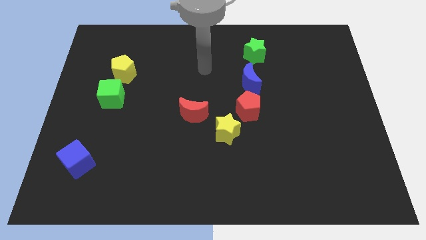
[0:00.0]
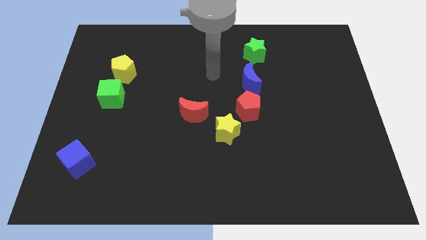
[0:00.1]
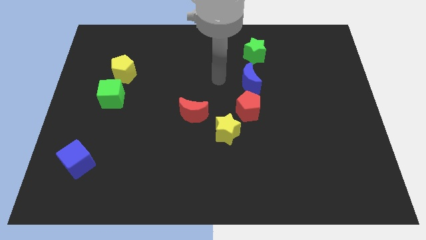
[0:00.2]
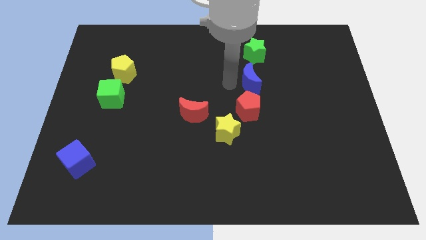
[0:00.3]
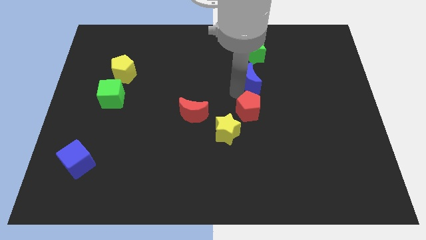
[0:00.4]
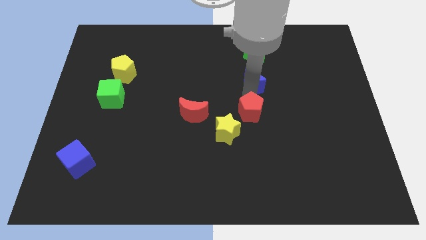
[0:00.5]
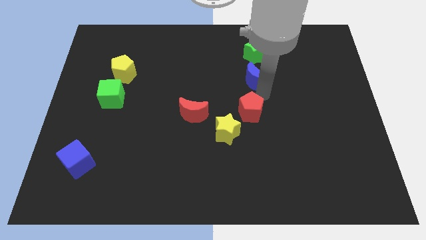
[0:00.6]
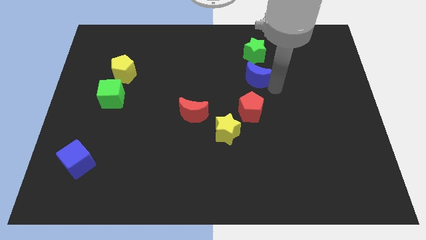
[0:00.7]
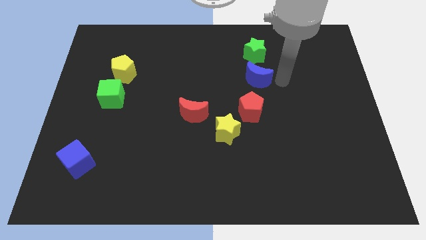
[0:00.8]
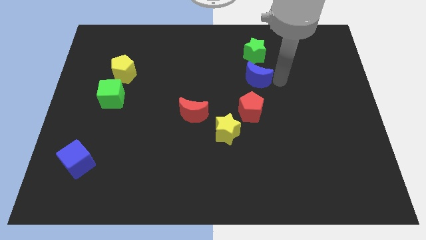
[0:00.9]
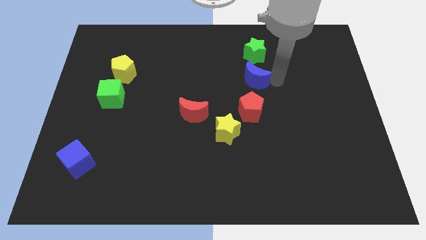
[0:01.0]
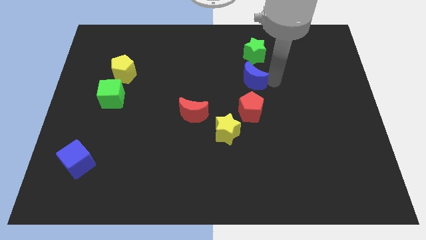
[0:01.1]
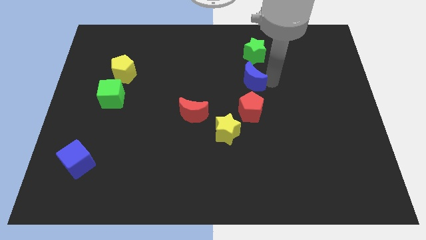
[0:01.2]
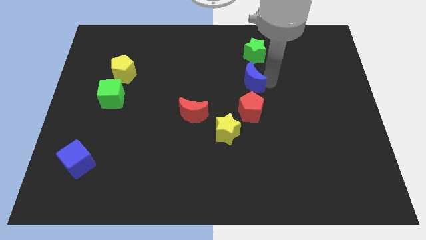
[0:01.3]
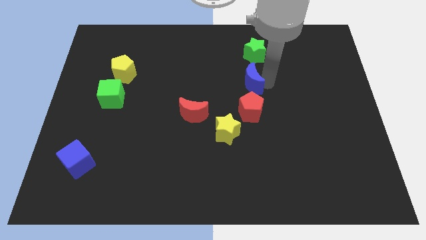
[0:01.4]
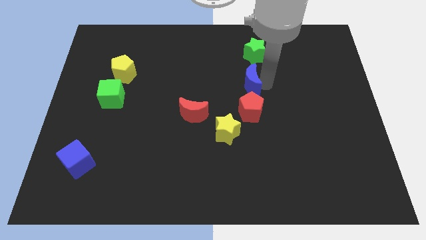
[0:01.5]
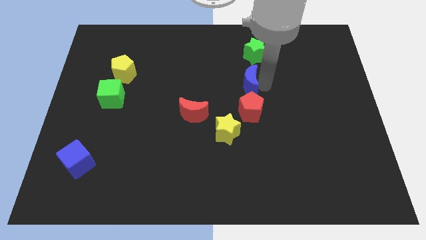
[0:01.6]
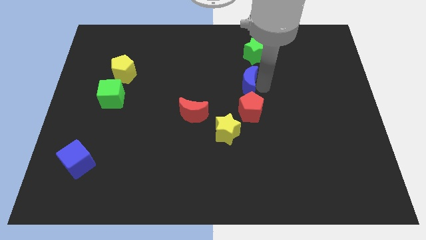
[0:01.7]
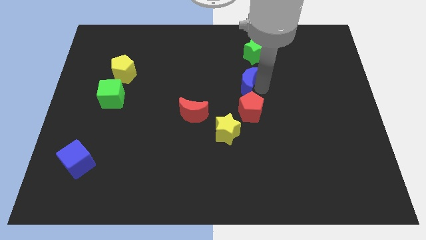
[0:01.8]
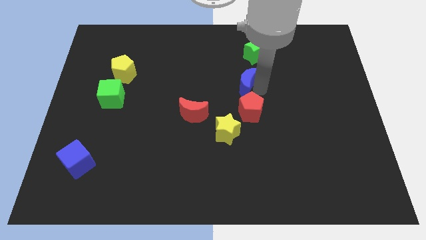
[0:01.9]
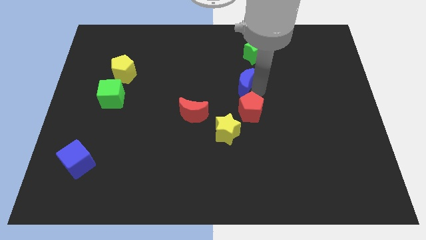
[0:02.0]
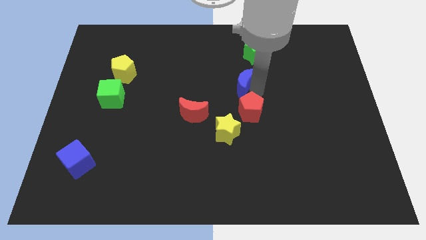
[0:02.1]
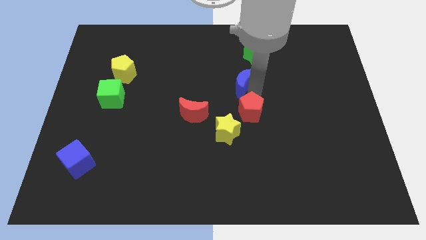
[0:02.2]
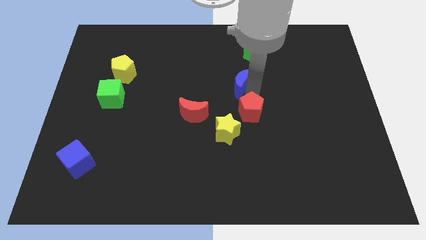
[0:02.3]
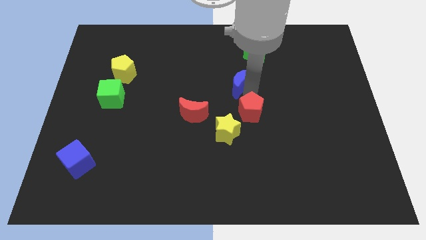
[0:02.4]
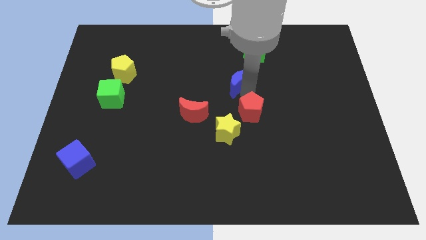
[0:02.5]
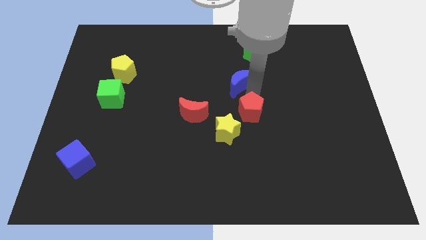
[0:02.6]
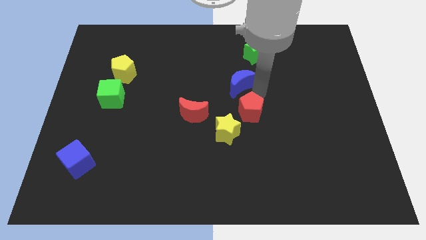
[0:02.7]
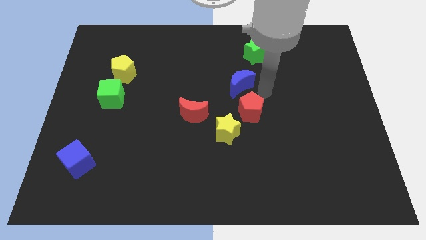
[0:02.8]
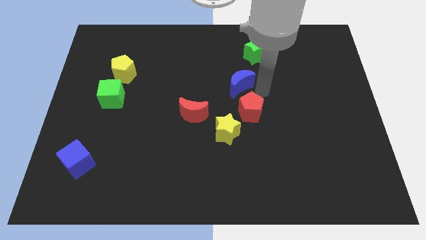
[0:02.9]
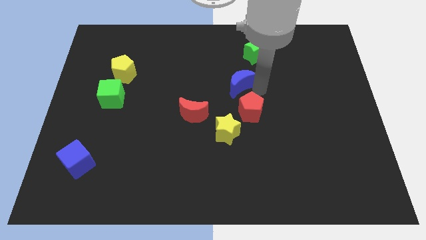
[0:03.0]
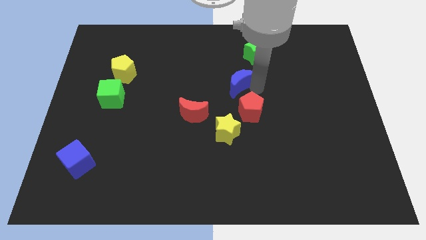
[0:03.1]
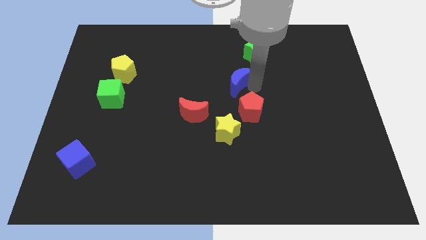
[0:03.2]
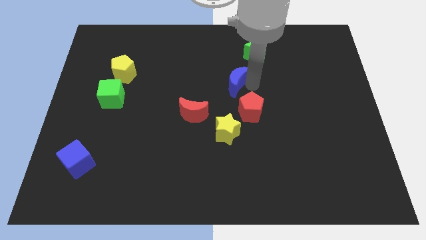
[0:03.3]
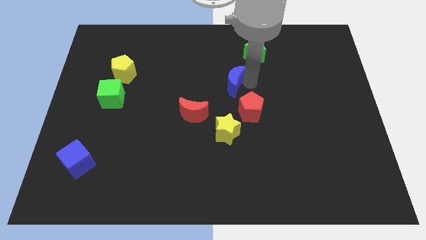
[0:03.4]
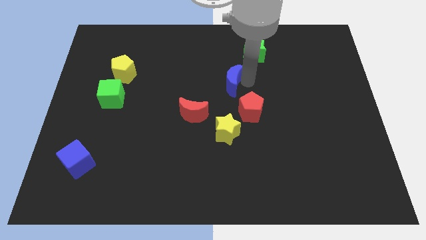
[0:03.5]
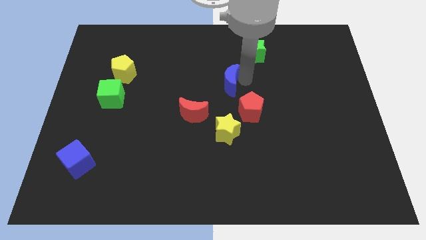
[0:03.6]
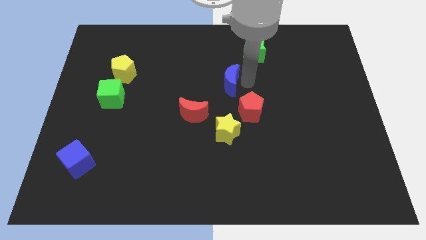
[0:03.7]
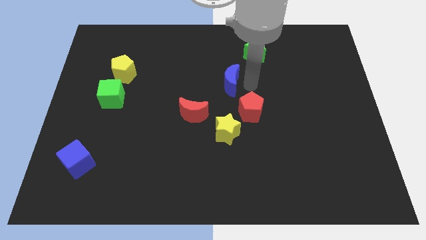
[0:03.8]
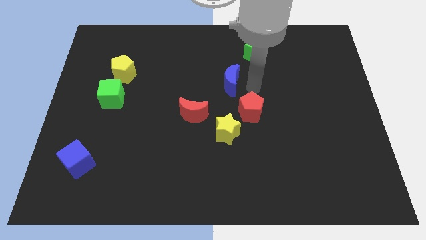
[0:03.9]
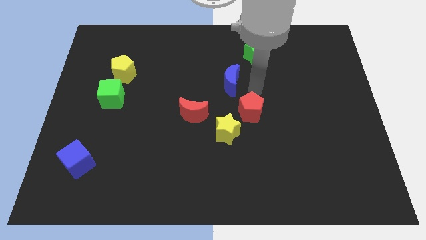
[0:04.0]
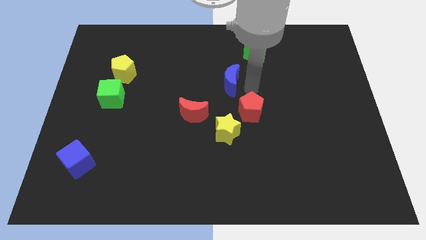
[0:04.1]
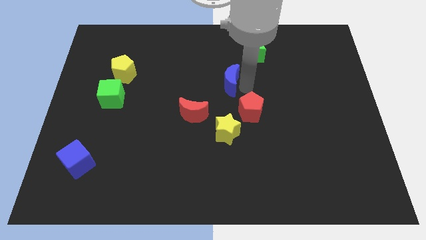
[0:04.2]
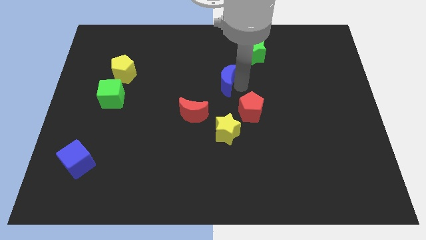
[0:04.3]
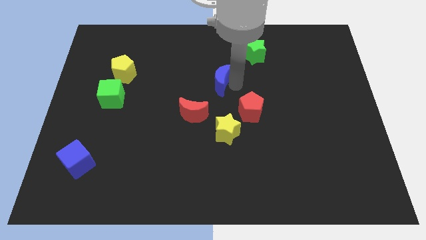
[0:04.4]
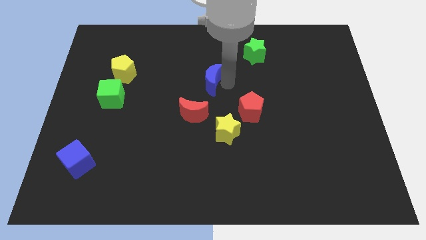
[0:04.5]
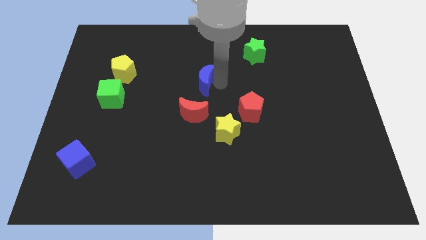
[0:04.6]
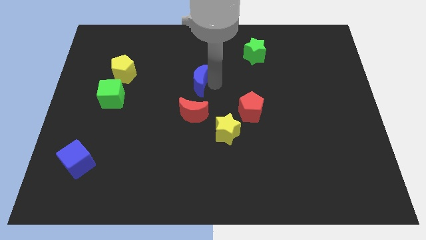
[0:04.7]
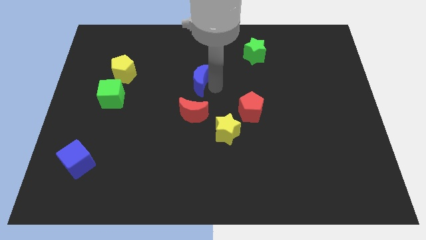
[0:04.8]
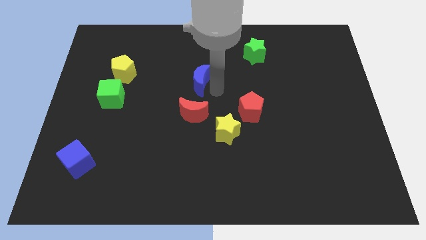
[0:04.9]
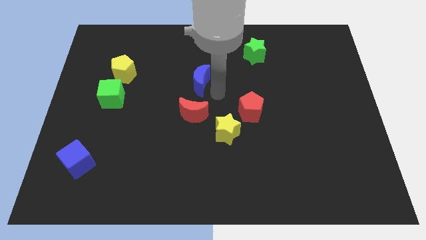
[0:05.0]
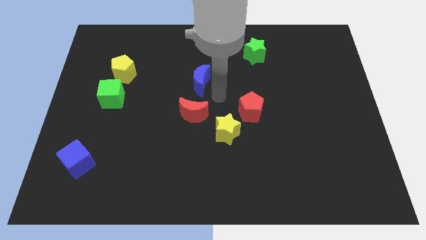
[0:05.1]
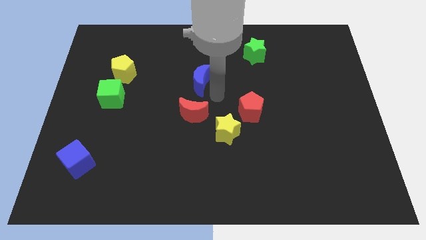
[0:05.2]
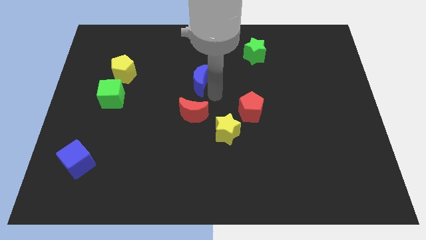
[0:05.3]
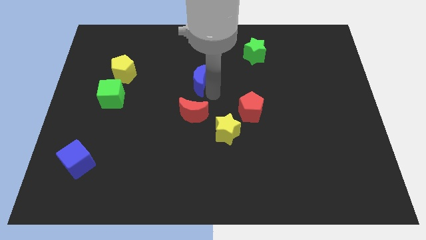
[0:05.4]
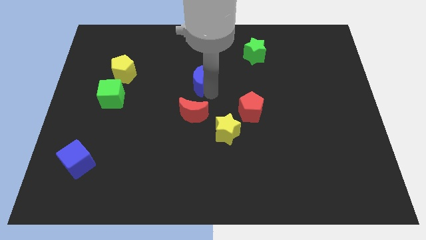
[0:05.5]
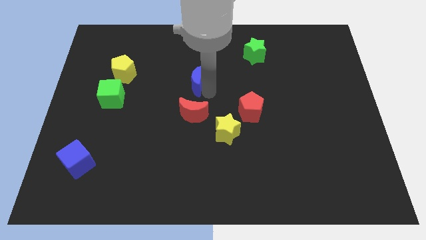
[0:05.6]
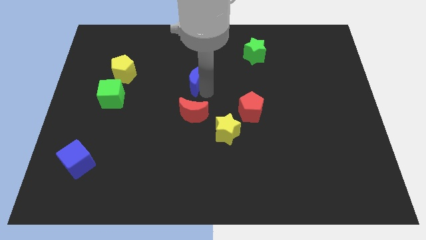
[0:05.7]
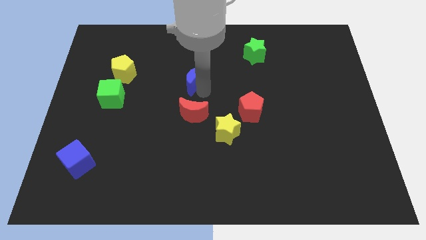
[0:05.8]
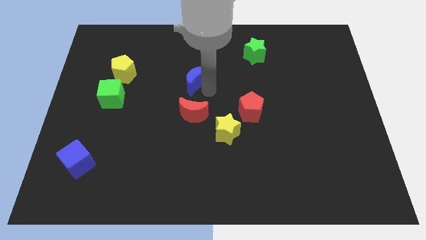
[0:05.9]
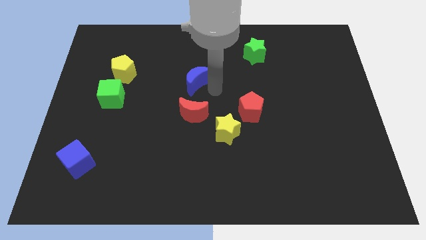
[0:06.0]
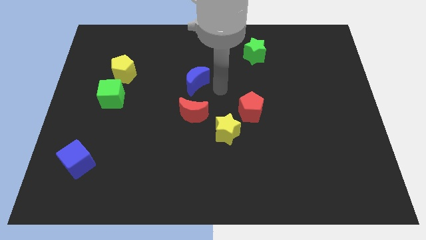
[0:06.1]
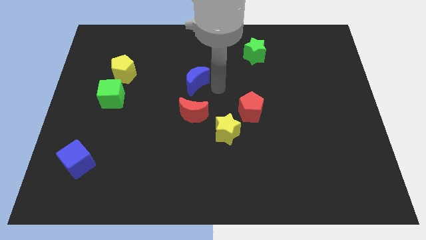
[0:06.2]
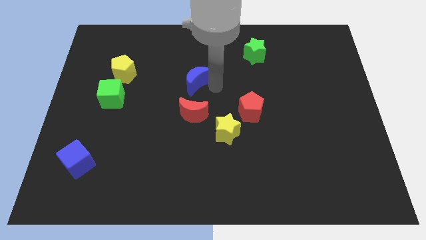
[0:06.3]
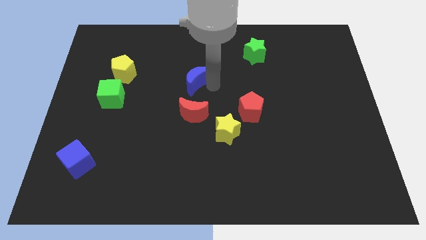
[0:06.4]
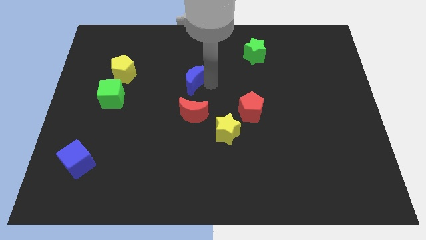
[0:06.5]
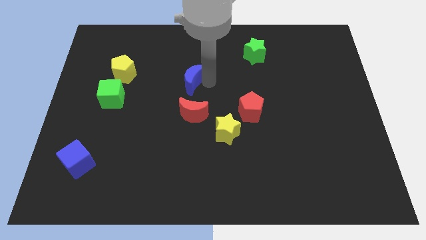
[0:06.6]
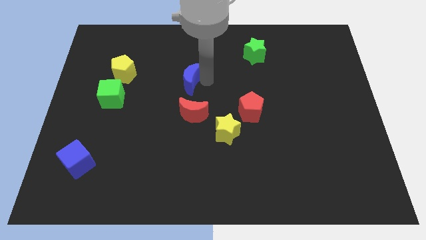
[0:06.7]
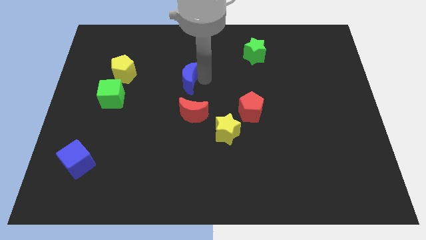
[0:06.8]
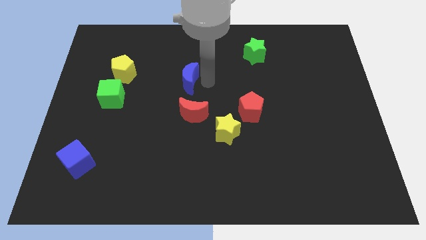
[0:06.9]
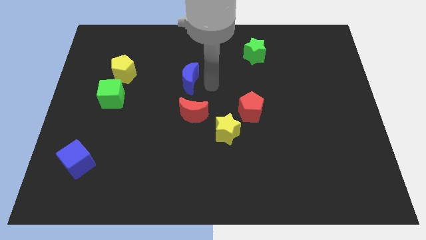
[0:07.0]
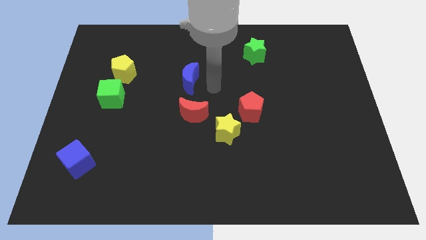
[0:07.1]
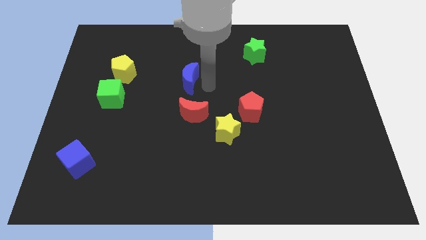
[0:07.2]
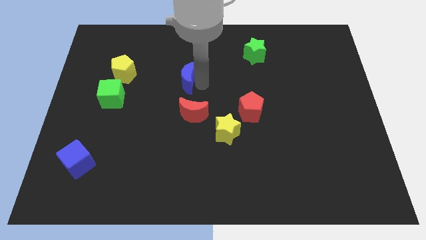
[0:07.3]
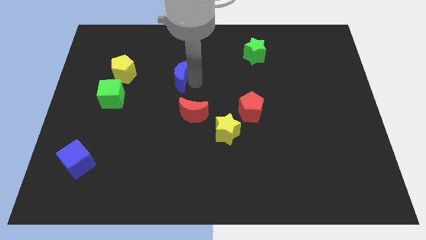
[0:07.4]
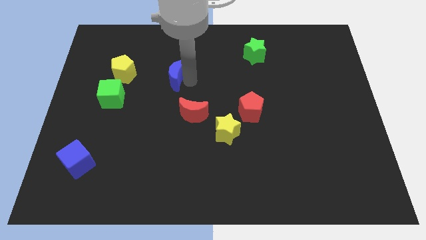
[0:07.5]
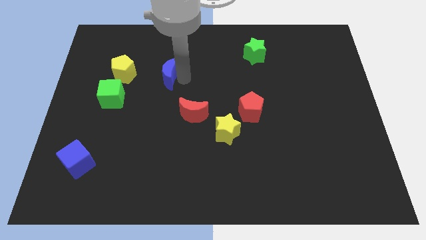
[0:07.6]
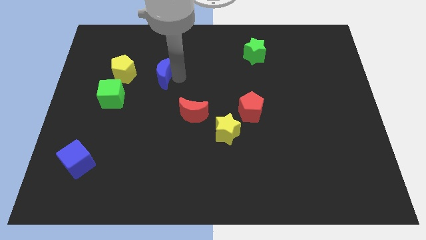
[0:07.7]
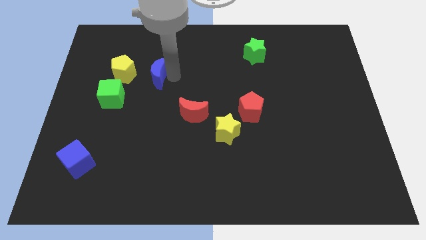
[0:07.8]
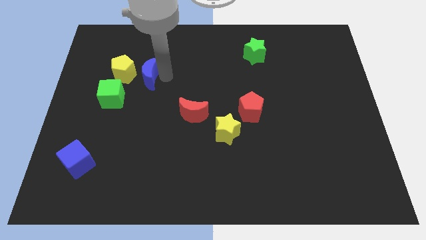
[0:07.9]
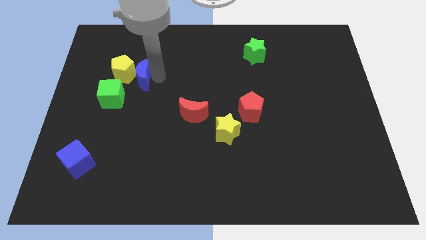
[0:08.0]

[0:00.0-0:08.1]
slide the blue moon next to the yellow pentagon
